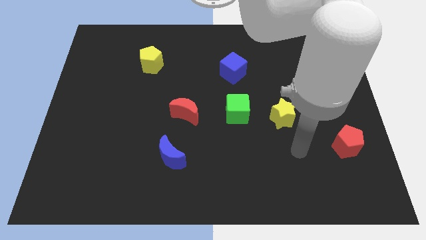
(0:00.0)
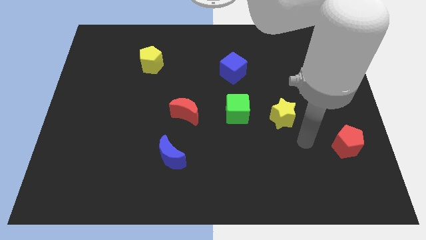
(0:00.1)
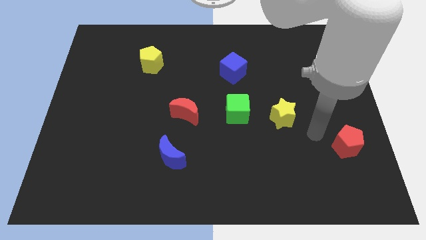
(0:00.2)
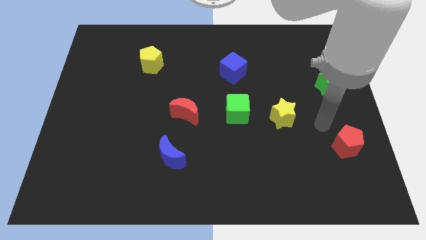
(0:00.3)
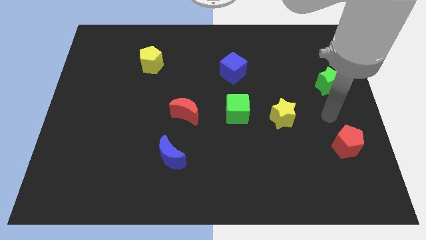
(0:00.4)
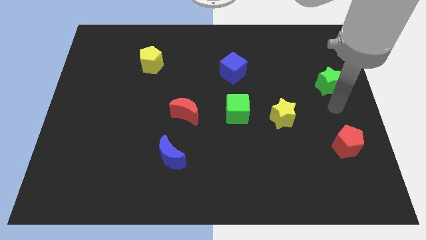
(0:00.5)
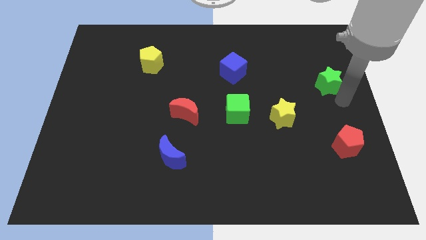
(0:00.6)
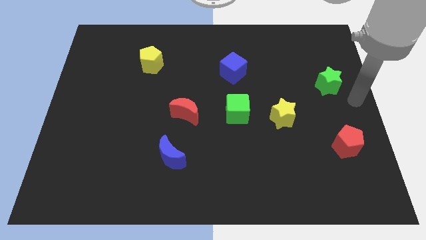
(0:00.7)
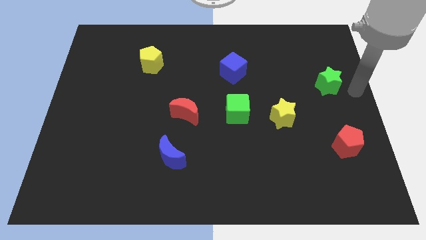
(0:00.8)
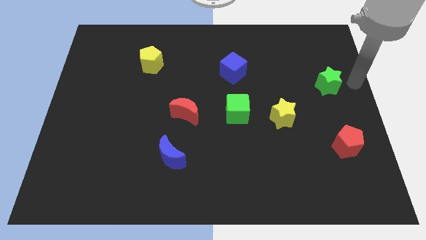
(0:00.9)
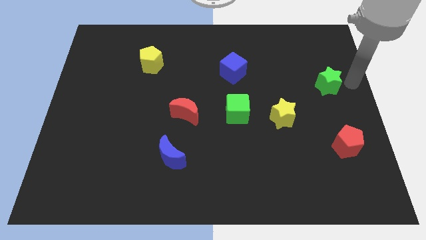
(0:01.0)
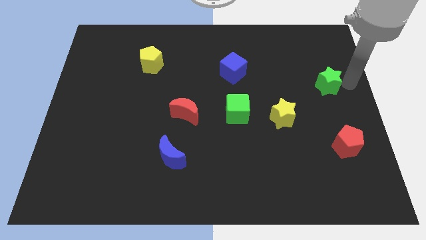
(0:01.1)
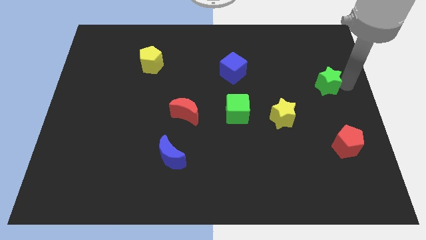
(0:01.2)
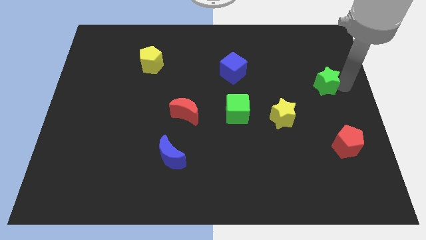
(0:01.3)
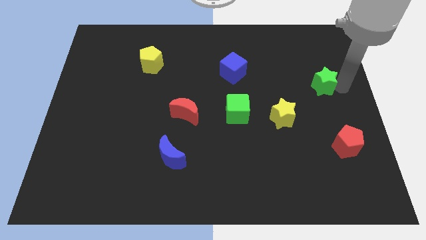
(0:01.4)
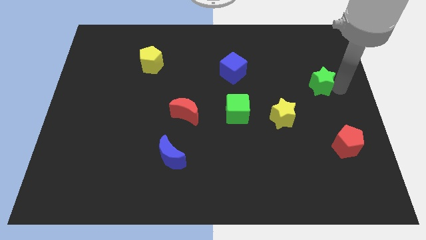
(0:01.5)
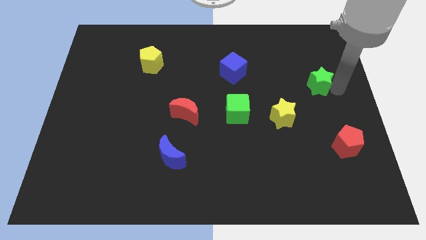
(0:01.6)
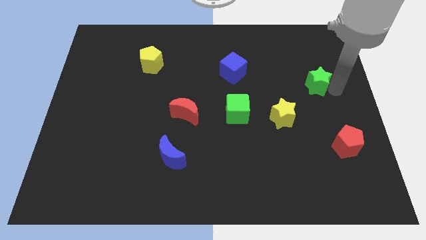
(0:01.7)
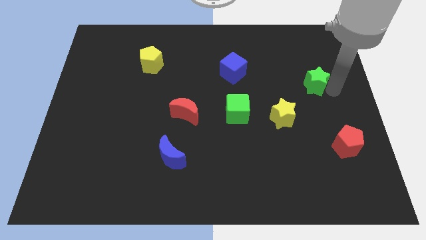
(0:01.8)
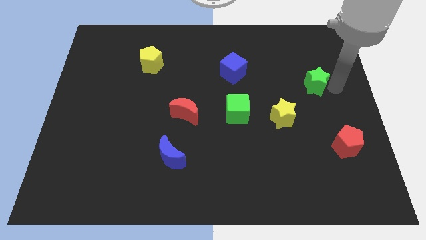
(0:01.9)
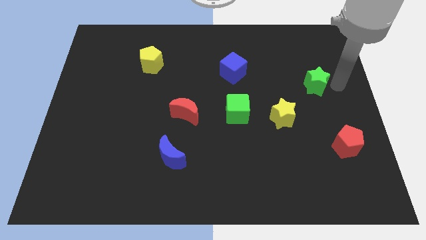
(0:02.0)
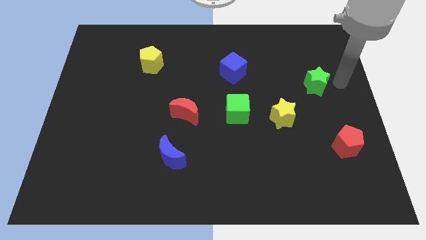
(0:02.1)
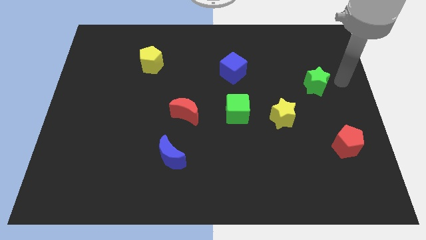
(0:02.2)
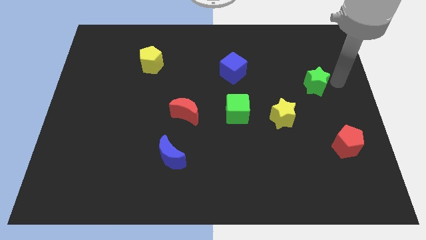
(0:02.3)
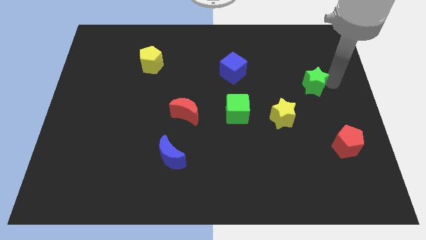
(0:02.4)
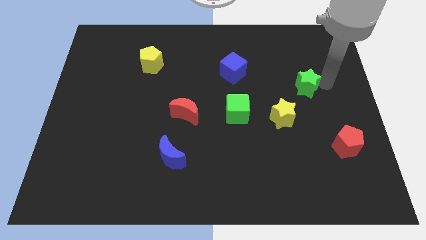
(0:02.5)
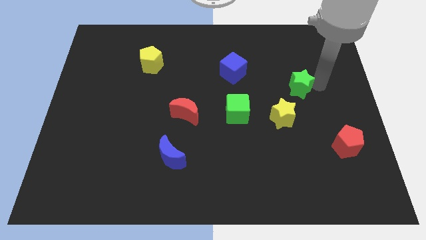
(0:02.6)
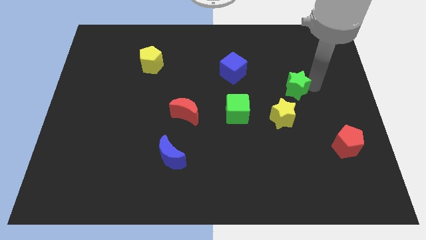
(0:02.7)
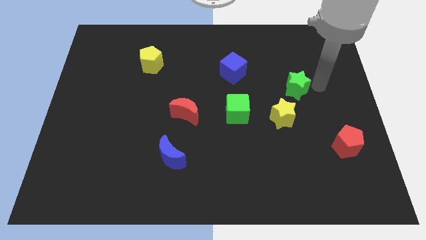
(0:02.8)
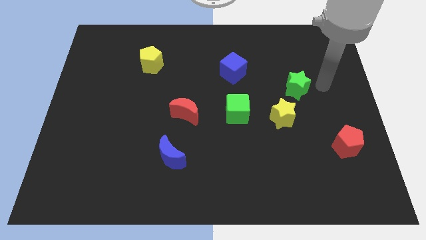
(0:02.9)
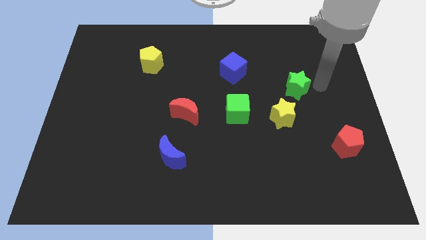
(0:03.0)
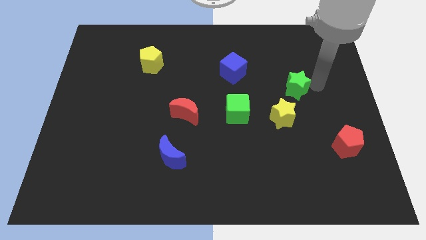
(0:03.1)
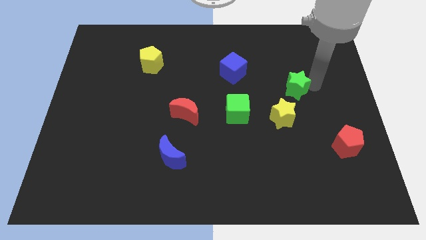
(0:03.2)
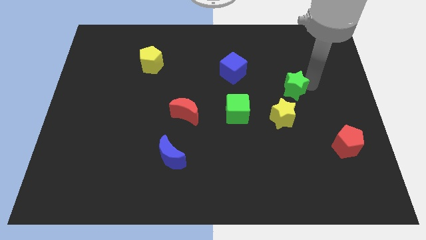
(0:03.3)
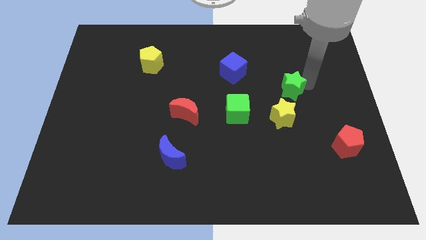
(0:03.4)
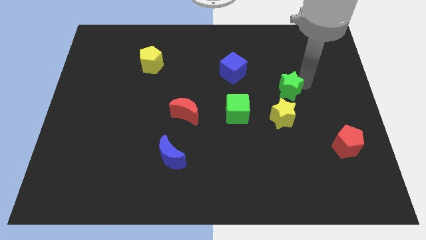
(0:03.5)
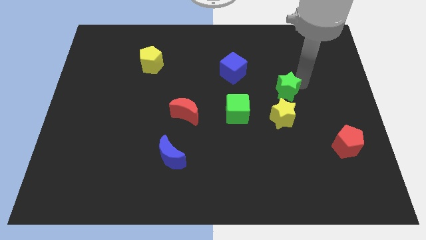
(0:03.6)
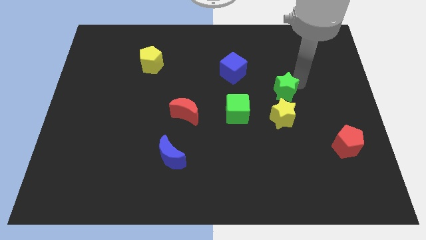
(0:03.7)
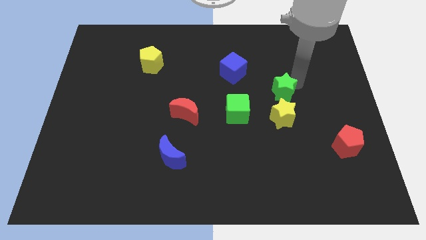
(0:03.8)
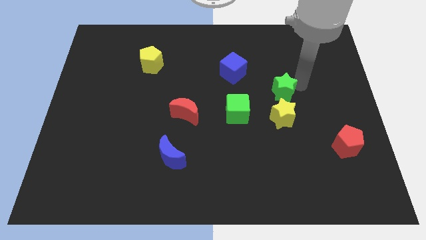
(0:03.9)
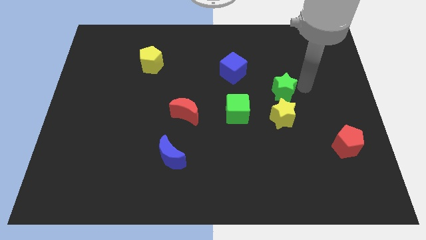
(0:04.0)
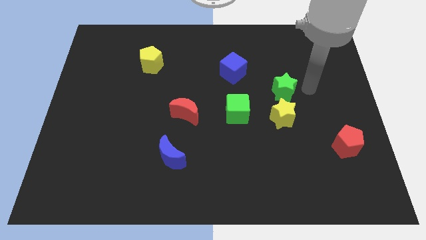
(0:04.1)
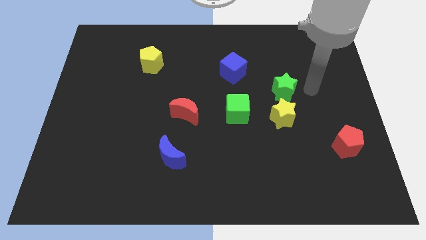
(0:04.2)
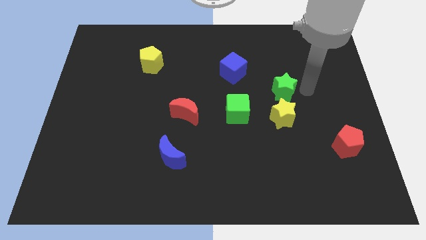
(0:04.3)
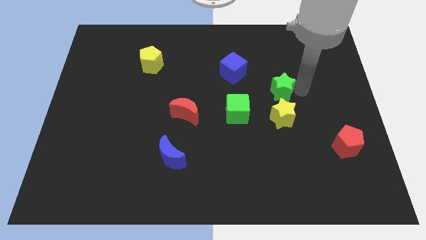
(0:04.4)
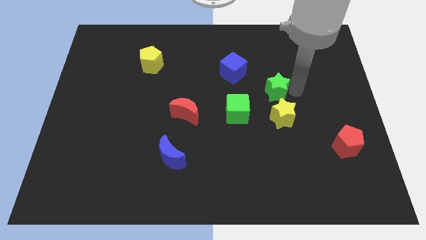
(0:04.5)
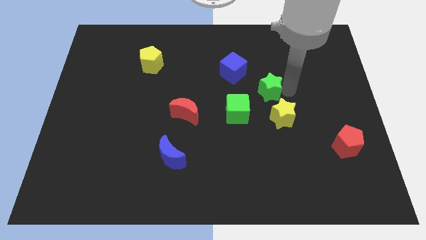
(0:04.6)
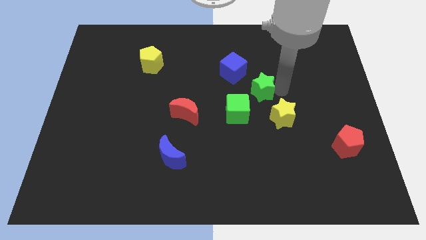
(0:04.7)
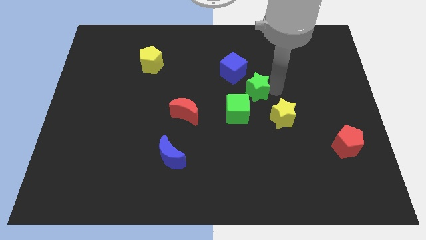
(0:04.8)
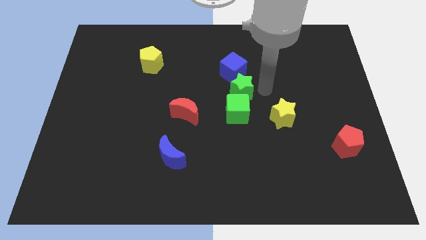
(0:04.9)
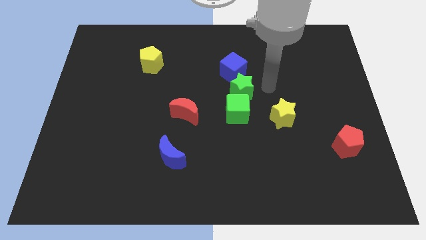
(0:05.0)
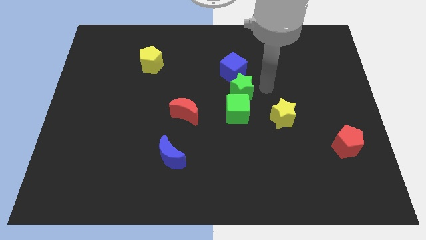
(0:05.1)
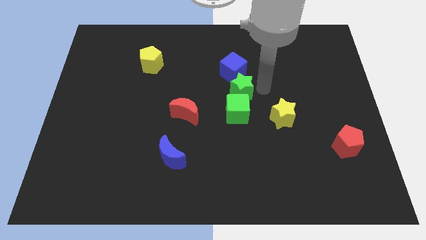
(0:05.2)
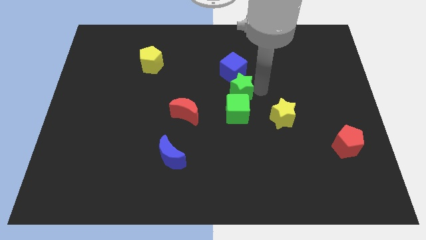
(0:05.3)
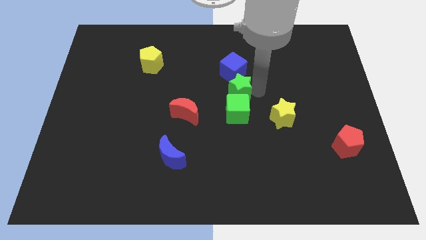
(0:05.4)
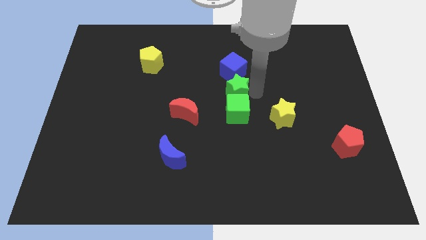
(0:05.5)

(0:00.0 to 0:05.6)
push the green star to the top left of the green cube

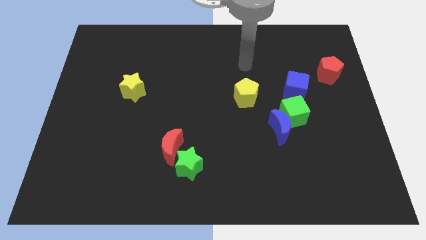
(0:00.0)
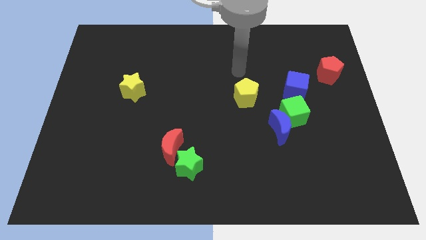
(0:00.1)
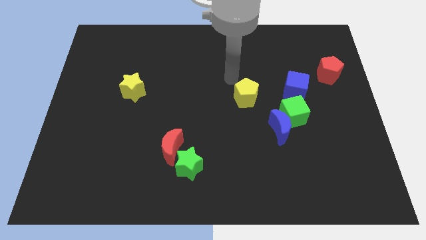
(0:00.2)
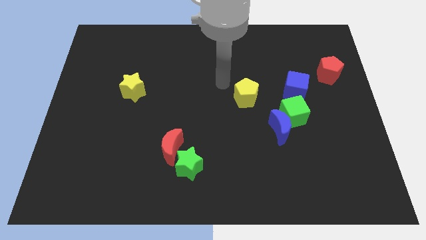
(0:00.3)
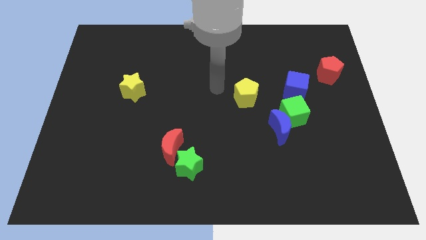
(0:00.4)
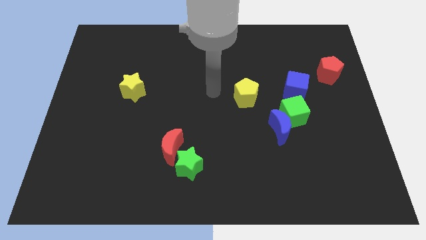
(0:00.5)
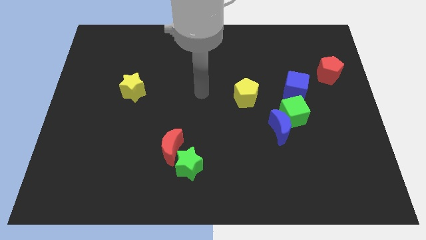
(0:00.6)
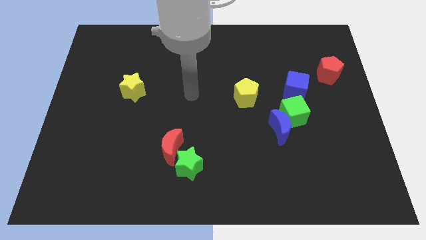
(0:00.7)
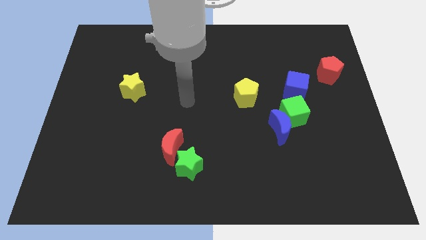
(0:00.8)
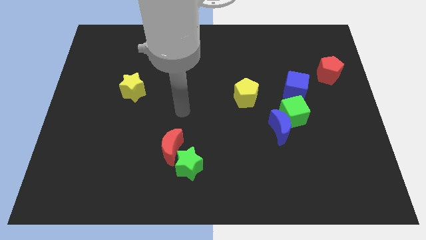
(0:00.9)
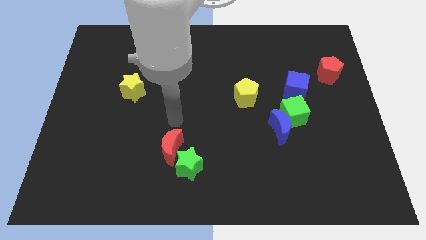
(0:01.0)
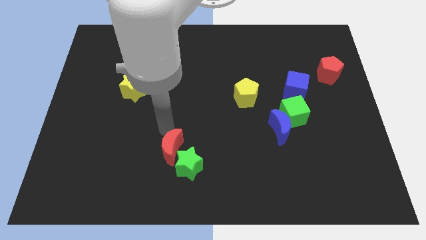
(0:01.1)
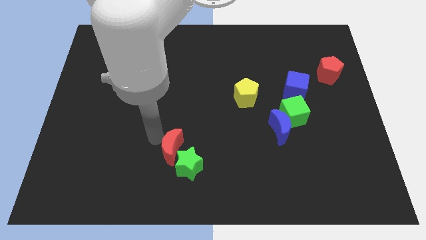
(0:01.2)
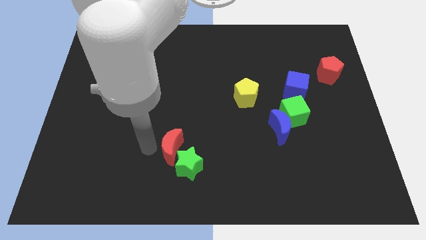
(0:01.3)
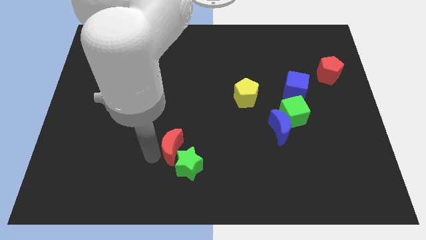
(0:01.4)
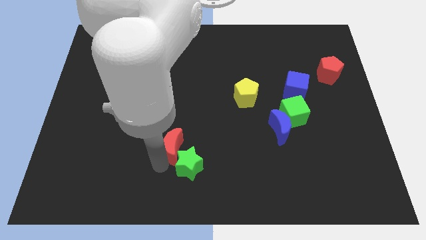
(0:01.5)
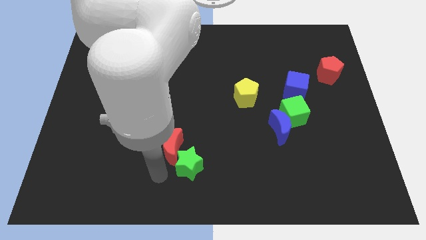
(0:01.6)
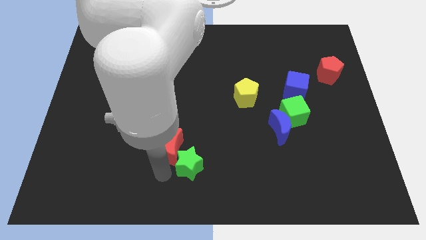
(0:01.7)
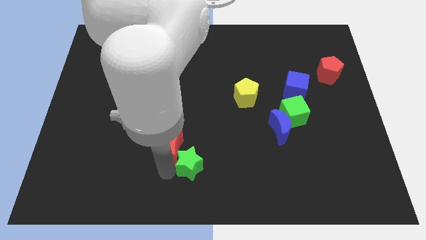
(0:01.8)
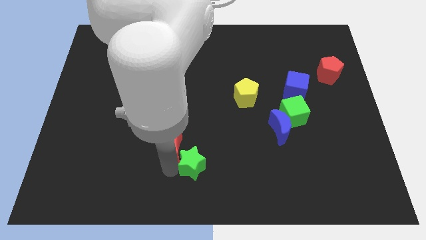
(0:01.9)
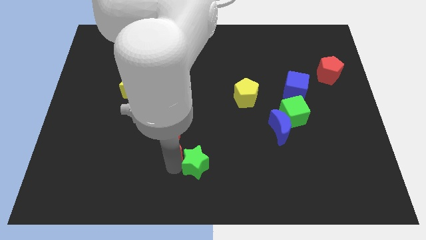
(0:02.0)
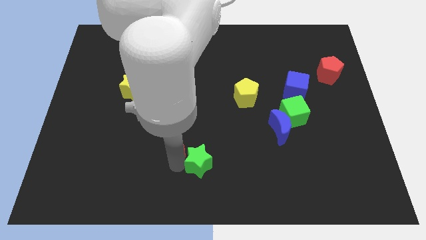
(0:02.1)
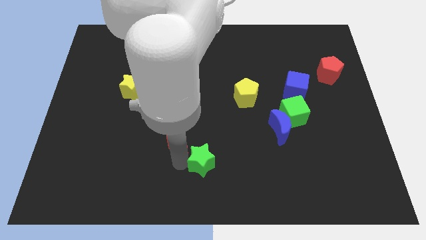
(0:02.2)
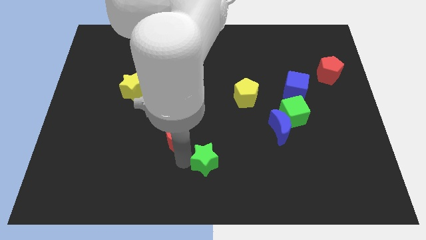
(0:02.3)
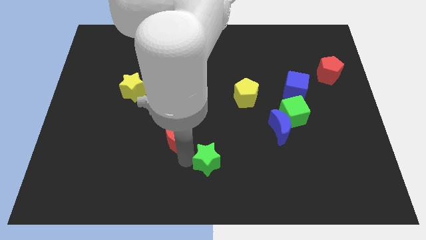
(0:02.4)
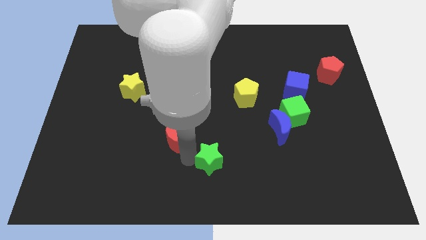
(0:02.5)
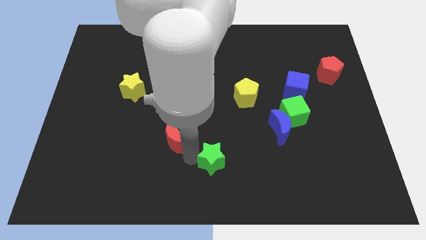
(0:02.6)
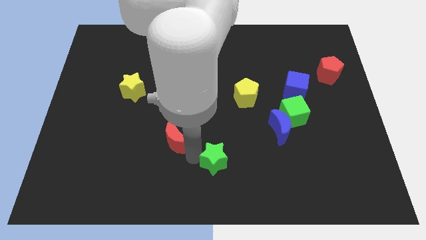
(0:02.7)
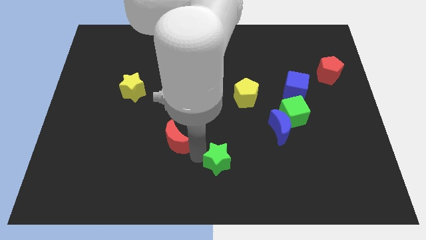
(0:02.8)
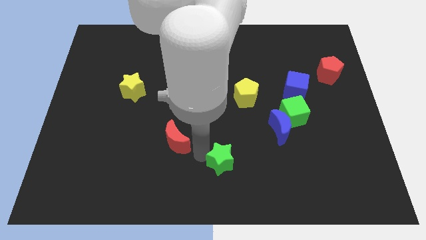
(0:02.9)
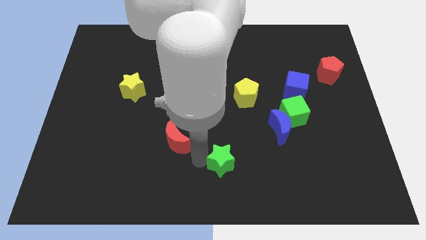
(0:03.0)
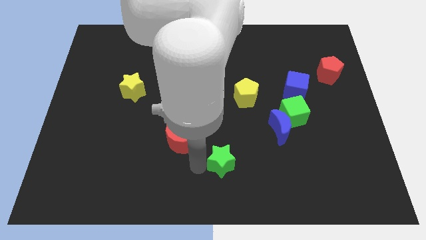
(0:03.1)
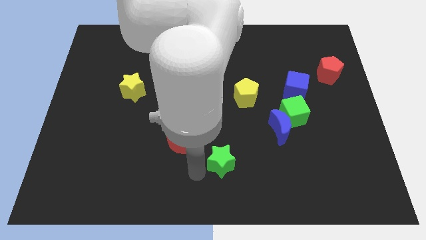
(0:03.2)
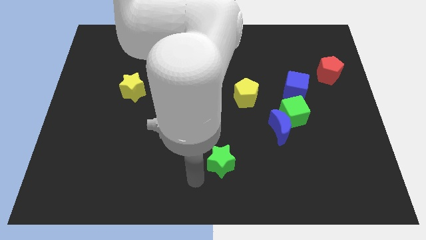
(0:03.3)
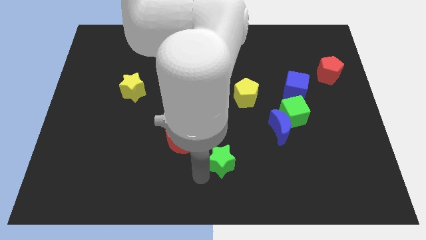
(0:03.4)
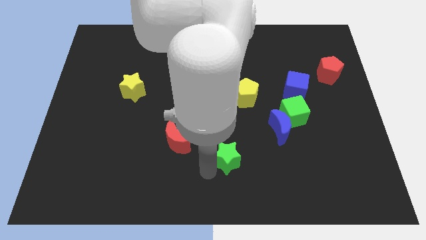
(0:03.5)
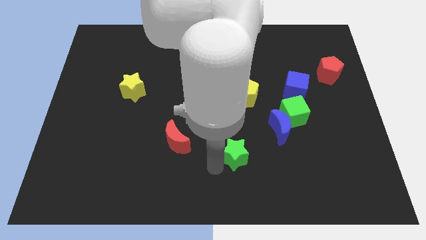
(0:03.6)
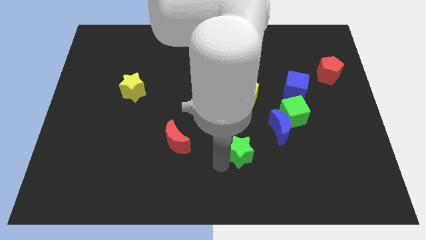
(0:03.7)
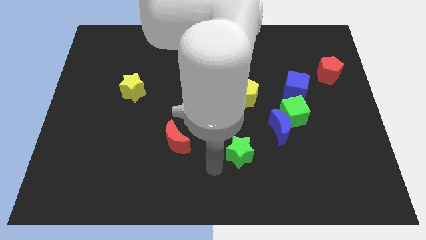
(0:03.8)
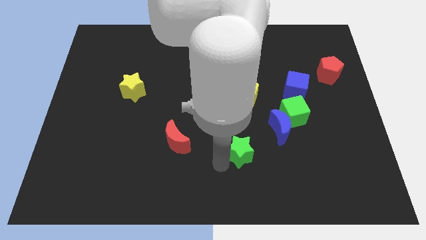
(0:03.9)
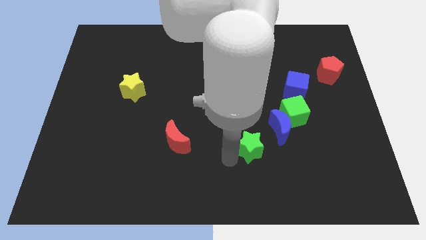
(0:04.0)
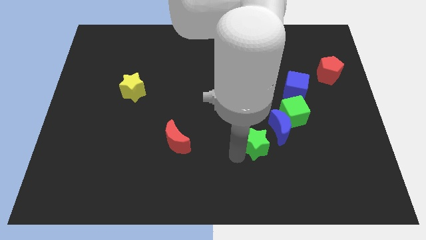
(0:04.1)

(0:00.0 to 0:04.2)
push the green star to the bottom left of the green cube
